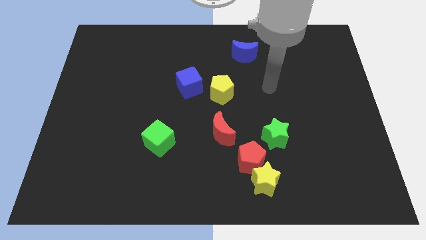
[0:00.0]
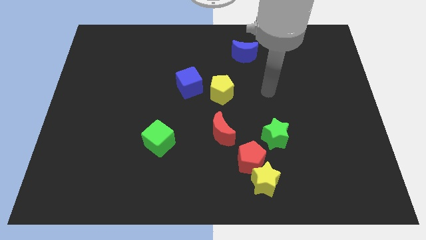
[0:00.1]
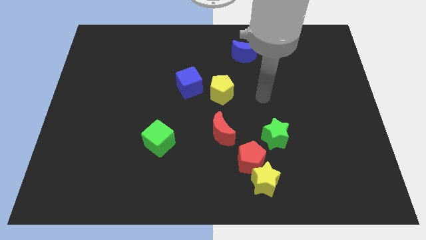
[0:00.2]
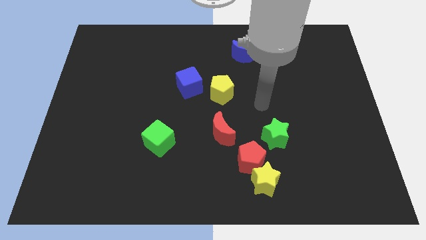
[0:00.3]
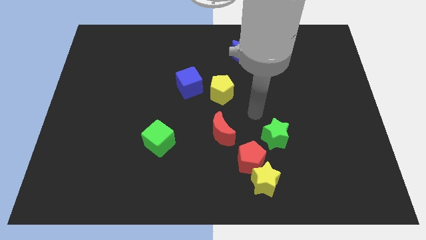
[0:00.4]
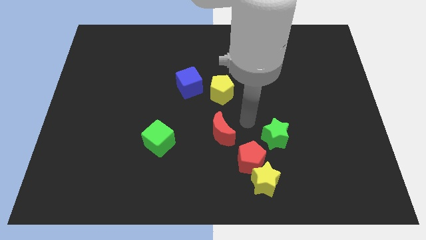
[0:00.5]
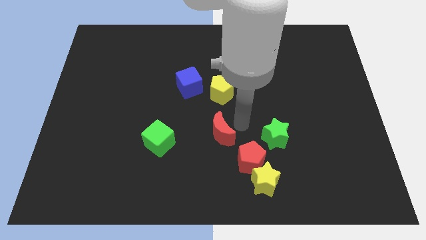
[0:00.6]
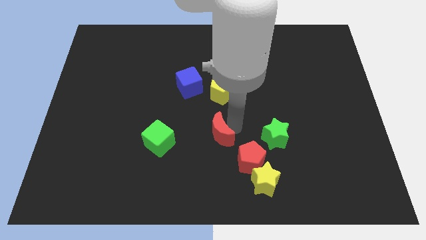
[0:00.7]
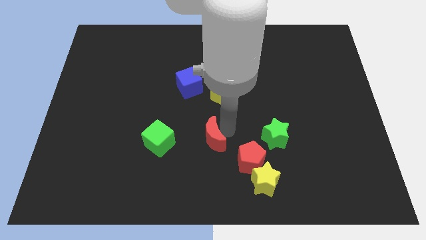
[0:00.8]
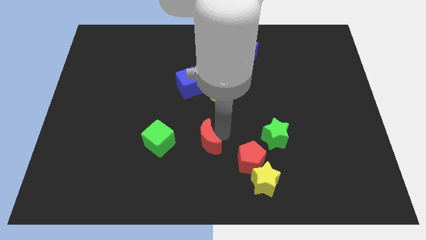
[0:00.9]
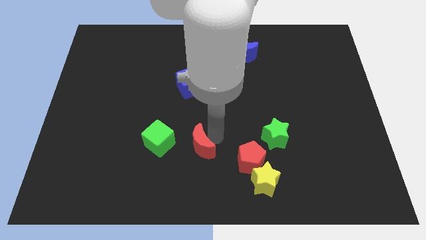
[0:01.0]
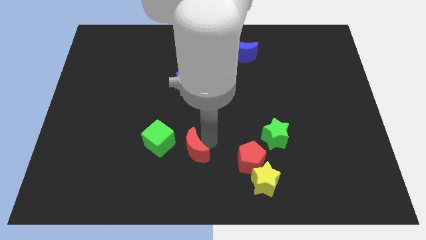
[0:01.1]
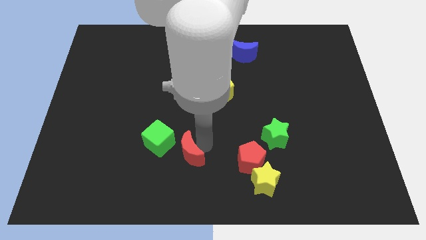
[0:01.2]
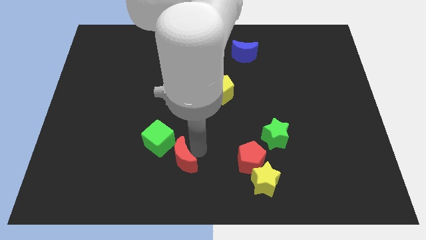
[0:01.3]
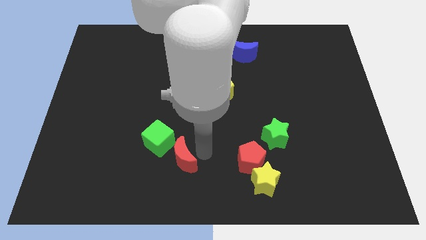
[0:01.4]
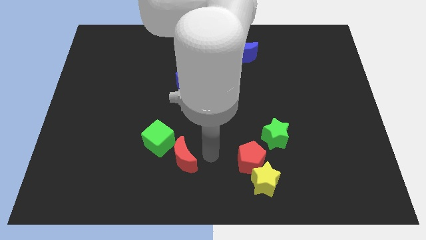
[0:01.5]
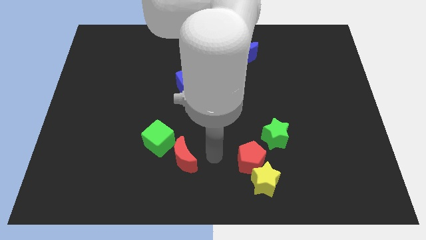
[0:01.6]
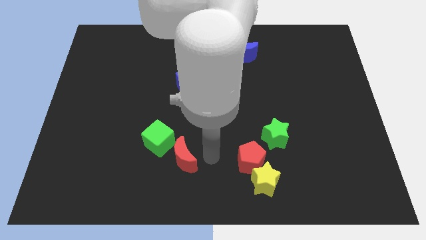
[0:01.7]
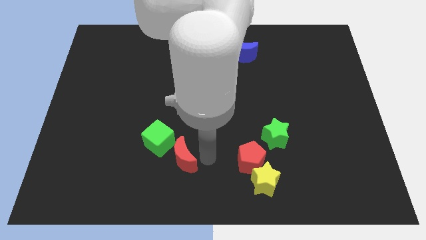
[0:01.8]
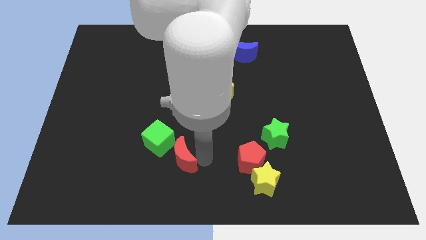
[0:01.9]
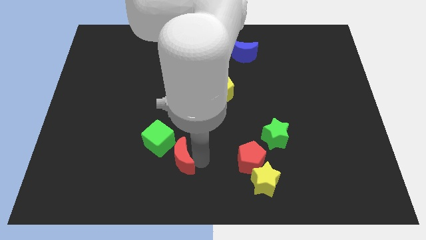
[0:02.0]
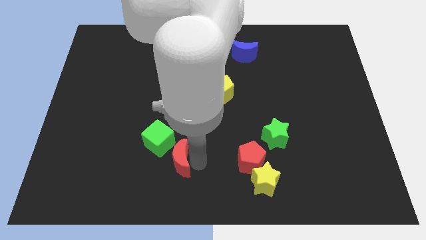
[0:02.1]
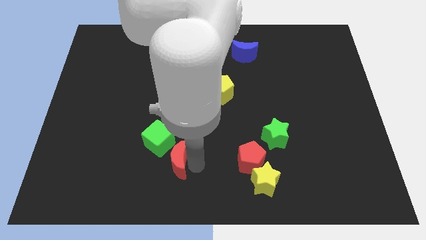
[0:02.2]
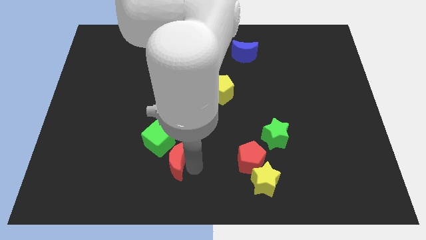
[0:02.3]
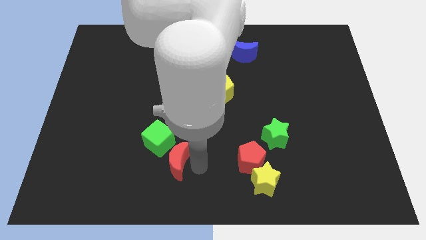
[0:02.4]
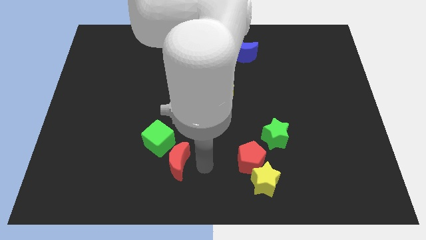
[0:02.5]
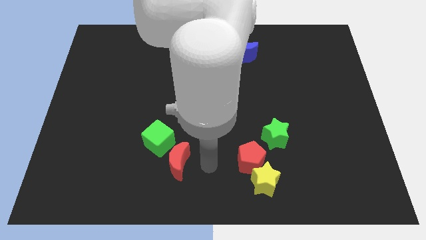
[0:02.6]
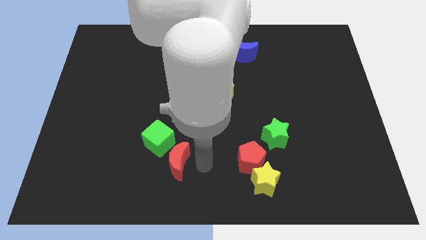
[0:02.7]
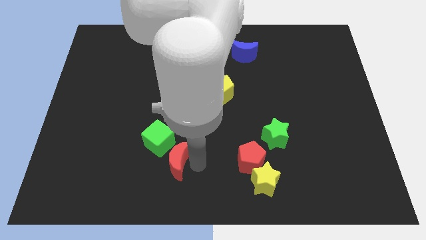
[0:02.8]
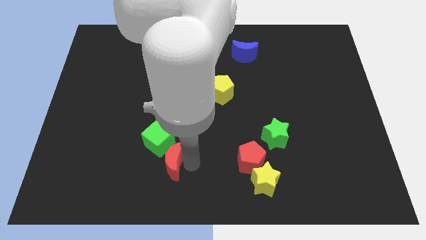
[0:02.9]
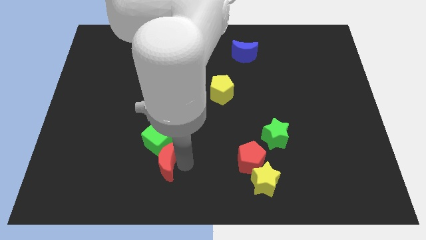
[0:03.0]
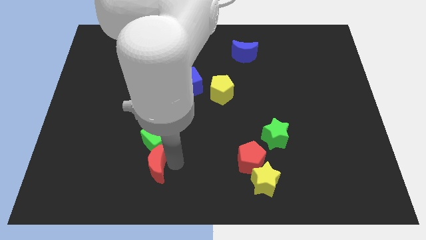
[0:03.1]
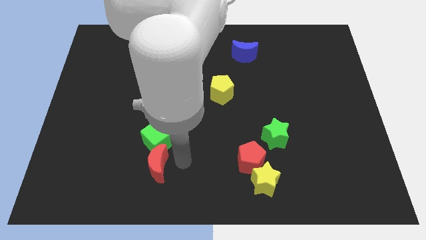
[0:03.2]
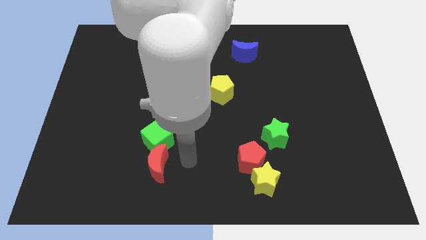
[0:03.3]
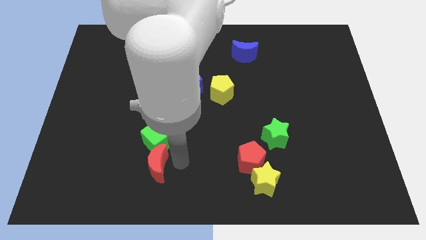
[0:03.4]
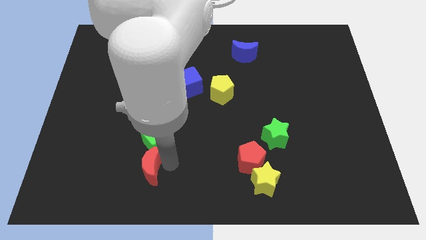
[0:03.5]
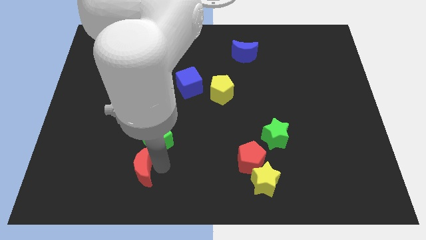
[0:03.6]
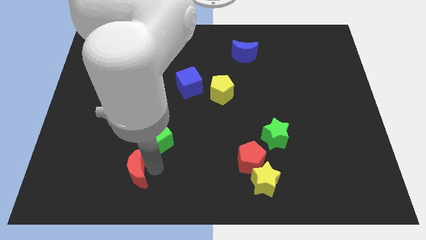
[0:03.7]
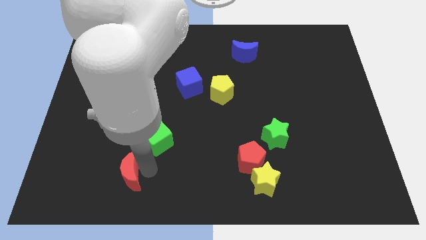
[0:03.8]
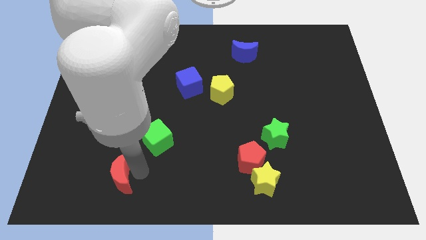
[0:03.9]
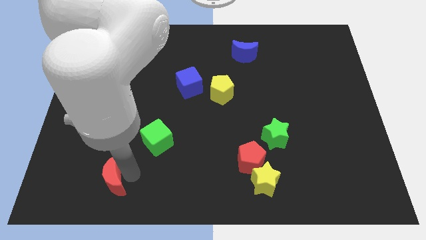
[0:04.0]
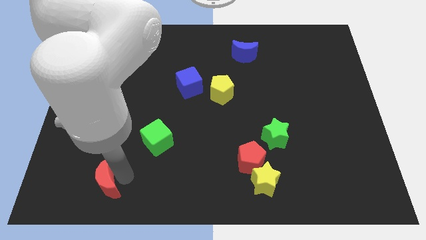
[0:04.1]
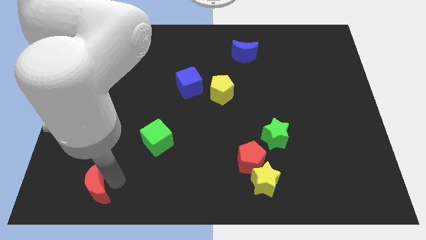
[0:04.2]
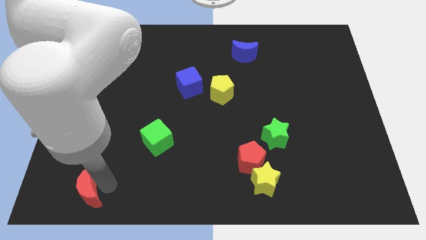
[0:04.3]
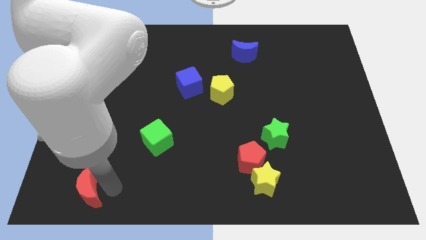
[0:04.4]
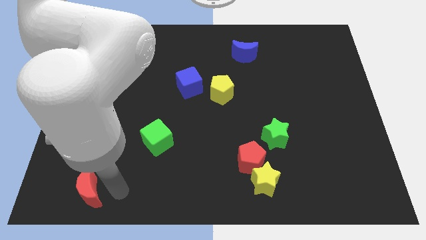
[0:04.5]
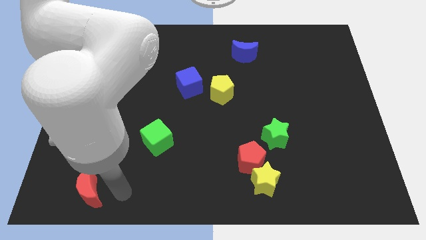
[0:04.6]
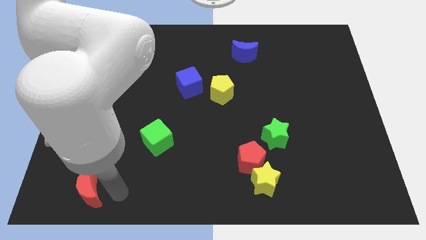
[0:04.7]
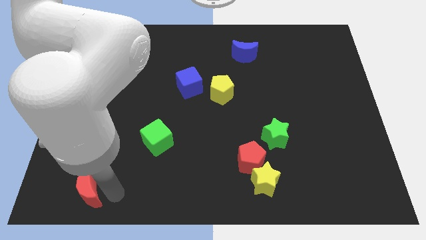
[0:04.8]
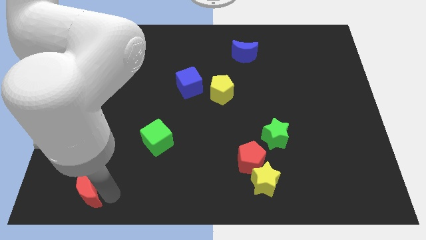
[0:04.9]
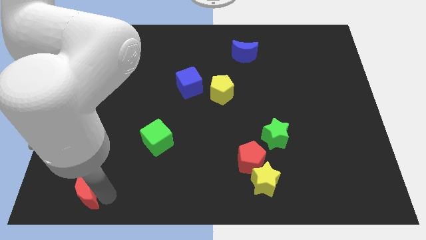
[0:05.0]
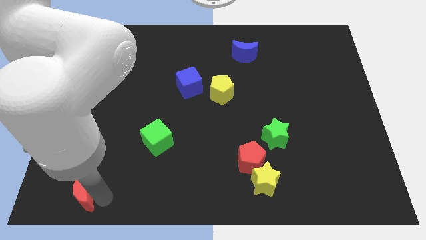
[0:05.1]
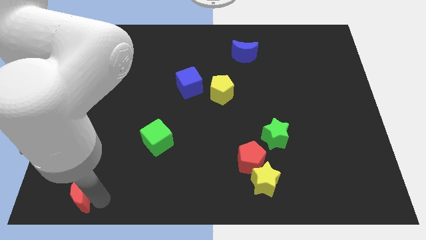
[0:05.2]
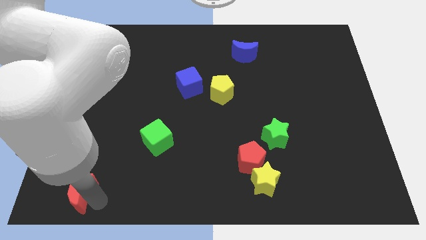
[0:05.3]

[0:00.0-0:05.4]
put the red moon to the bottom left corner

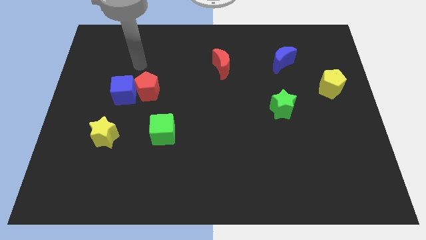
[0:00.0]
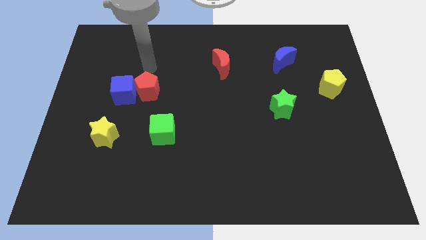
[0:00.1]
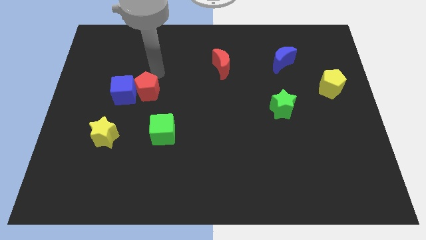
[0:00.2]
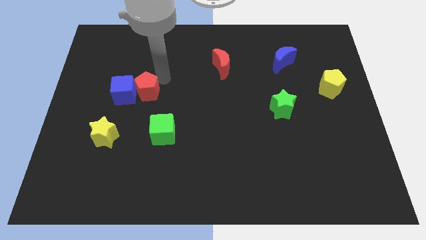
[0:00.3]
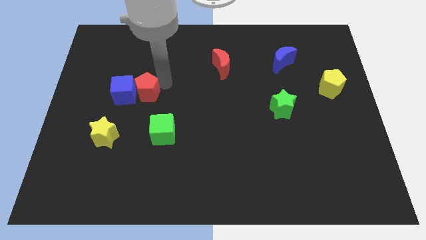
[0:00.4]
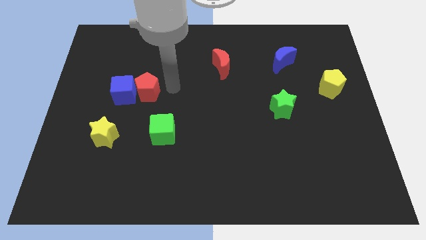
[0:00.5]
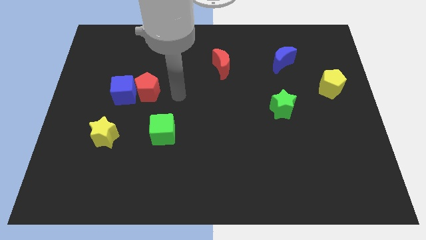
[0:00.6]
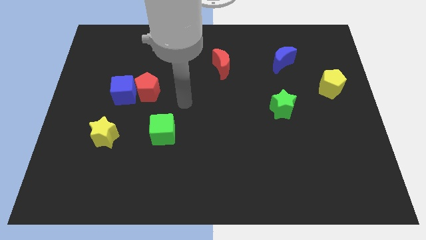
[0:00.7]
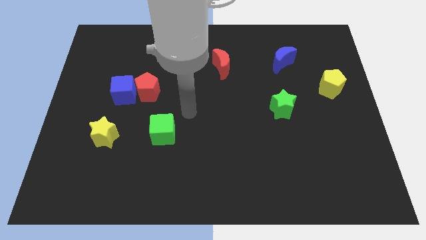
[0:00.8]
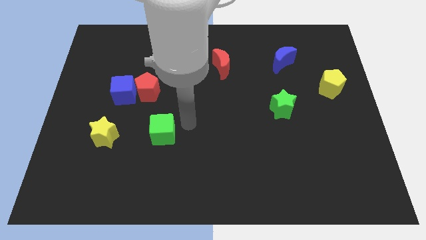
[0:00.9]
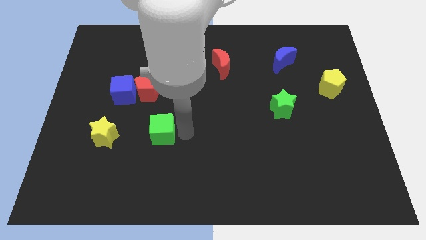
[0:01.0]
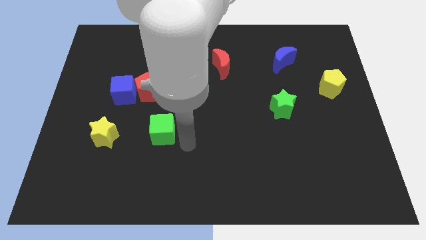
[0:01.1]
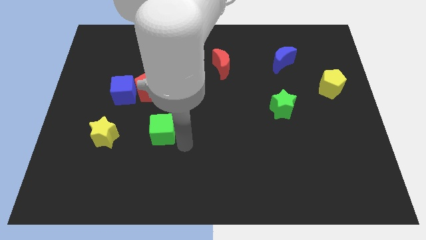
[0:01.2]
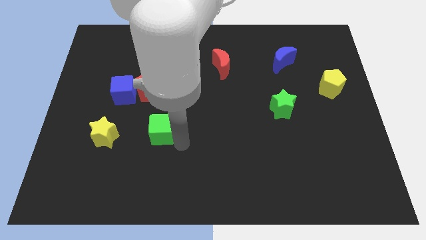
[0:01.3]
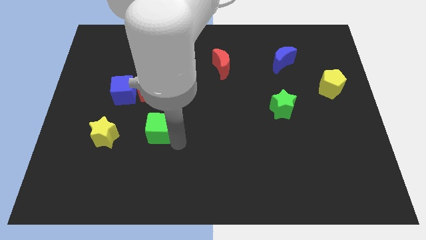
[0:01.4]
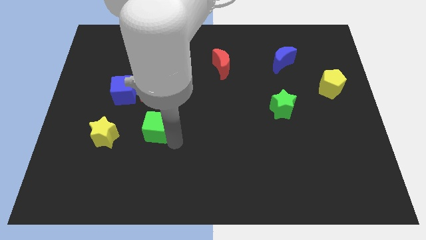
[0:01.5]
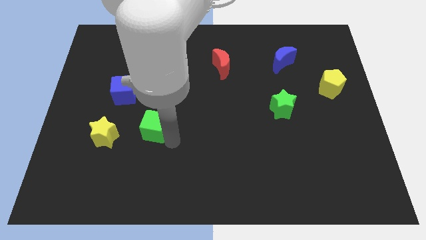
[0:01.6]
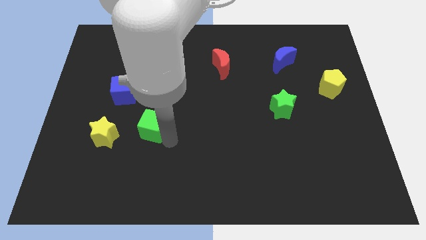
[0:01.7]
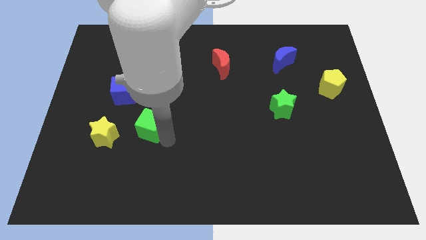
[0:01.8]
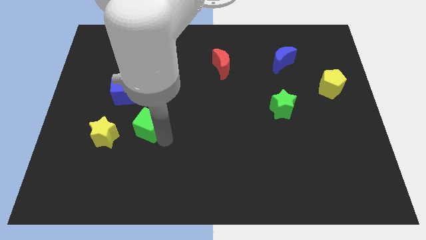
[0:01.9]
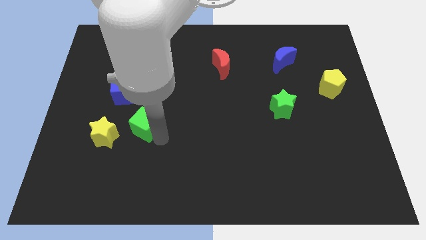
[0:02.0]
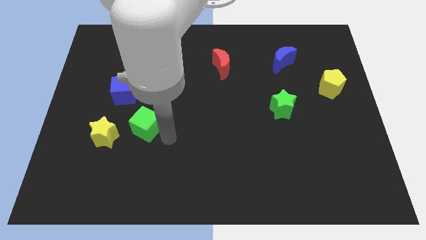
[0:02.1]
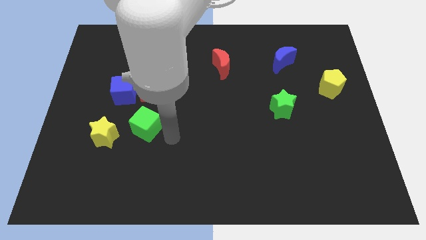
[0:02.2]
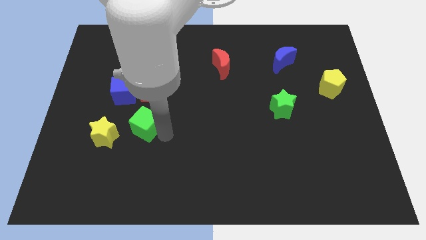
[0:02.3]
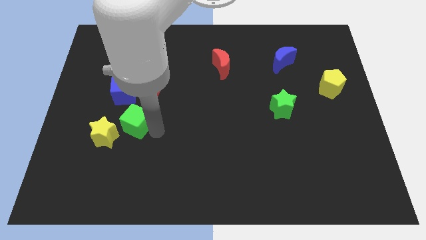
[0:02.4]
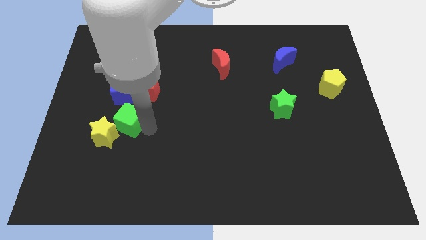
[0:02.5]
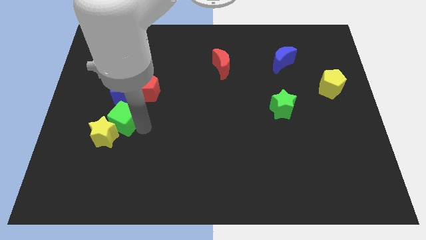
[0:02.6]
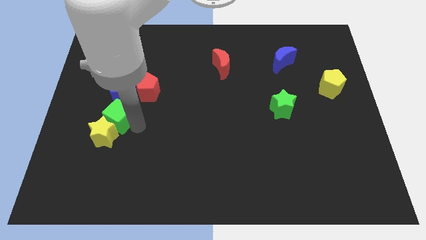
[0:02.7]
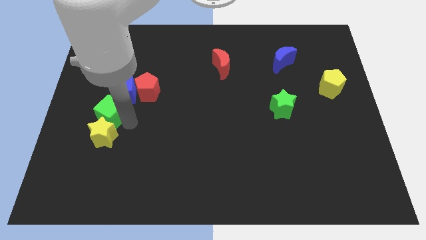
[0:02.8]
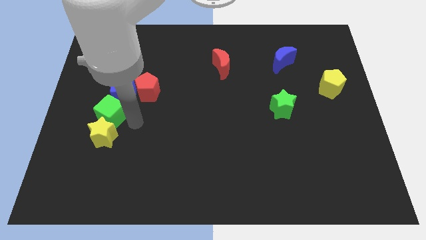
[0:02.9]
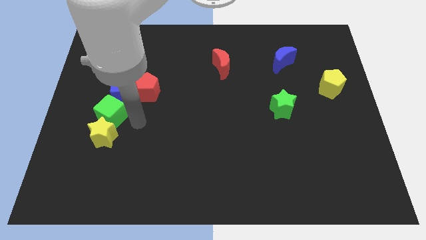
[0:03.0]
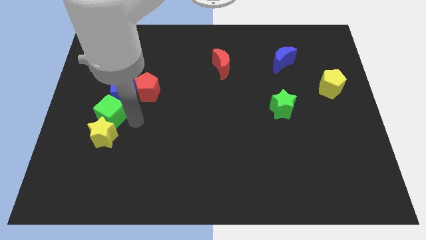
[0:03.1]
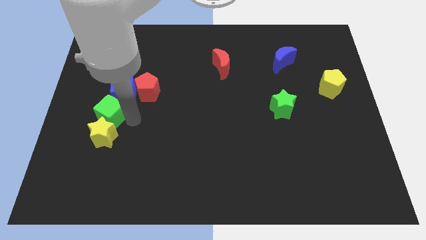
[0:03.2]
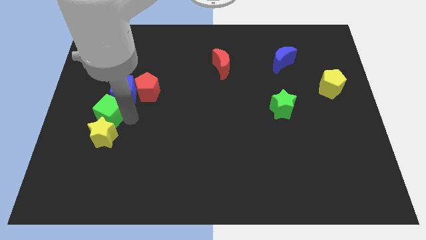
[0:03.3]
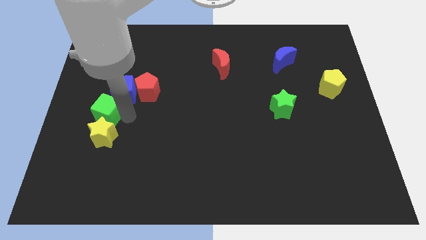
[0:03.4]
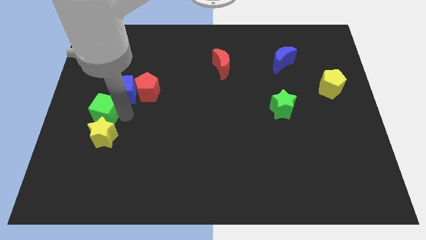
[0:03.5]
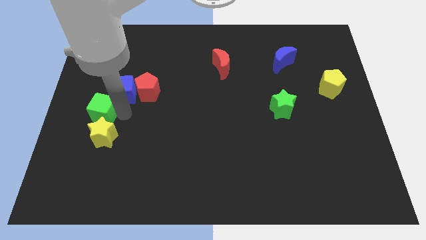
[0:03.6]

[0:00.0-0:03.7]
slide the green cube to the left side of the board
